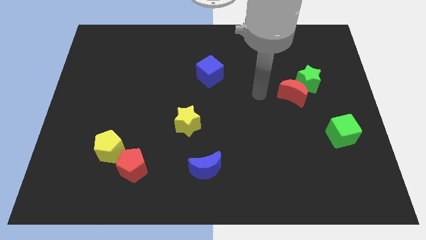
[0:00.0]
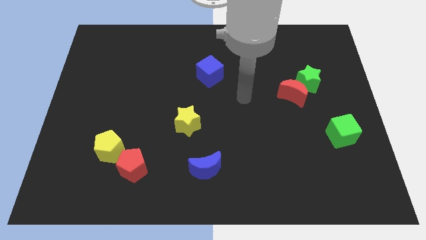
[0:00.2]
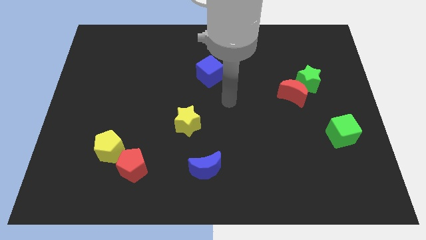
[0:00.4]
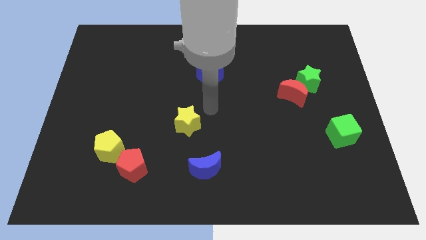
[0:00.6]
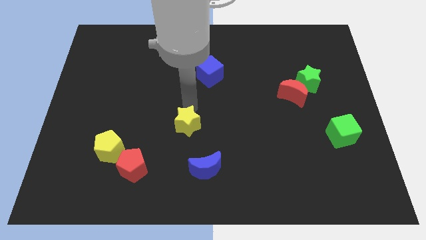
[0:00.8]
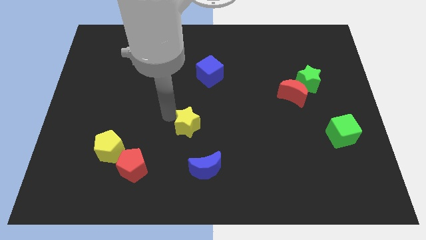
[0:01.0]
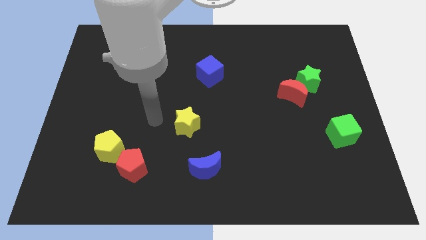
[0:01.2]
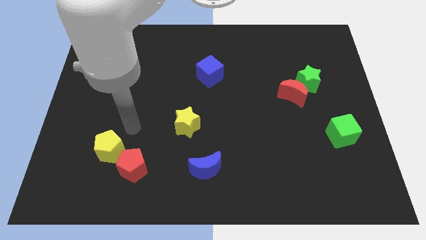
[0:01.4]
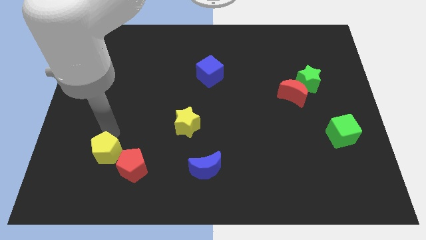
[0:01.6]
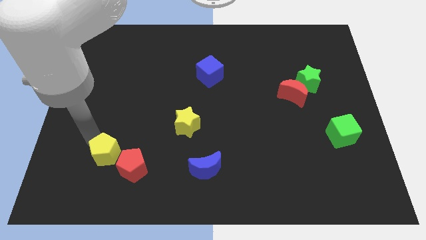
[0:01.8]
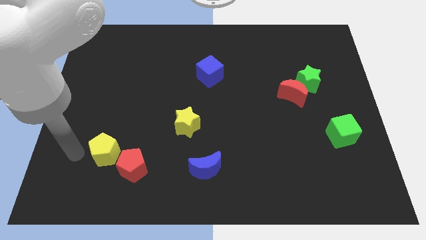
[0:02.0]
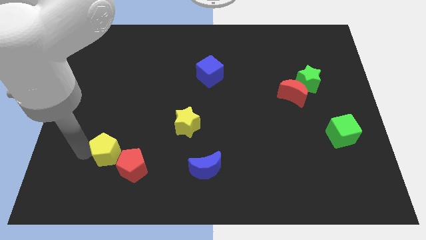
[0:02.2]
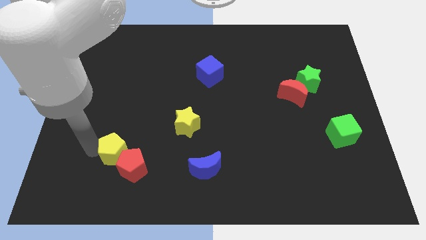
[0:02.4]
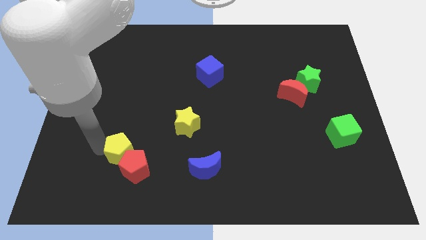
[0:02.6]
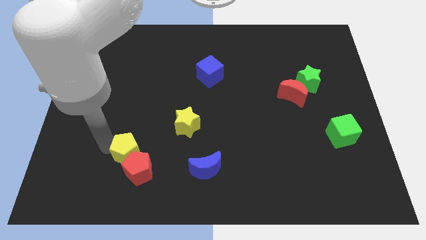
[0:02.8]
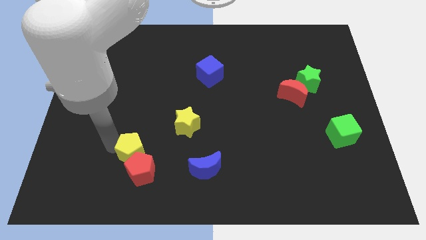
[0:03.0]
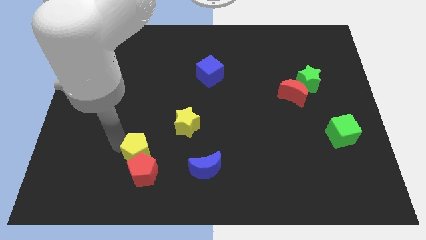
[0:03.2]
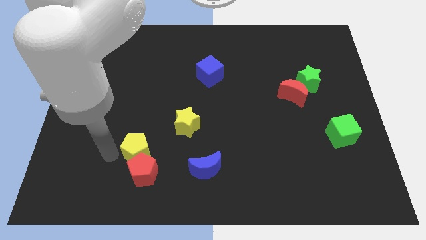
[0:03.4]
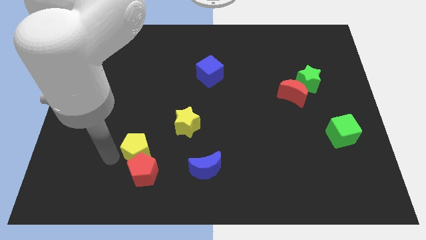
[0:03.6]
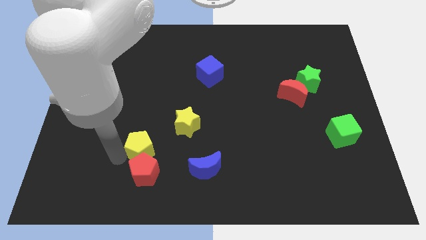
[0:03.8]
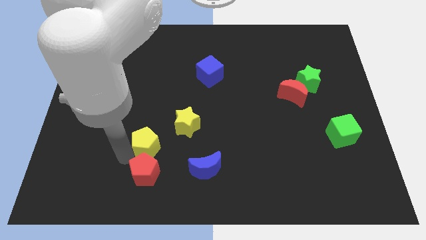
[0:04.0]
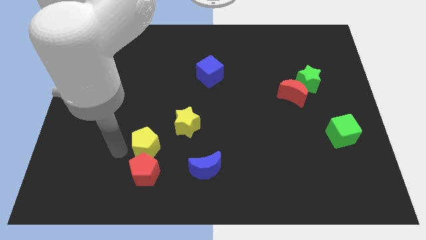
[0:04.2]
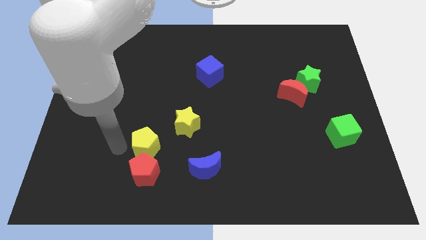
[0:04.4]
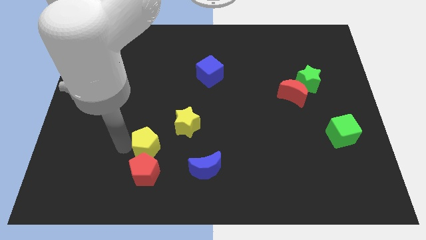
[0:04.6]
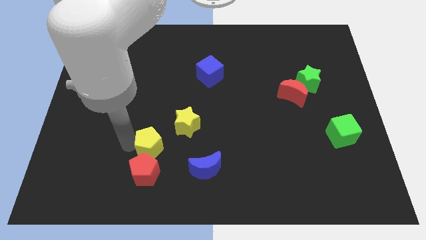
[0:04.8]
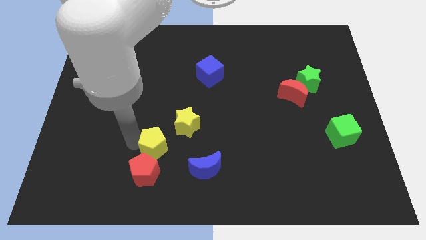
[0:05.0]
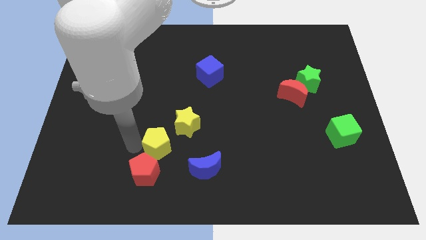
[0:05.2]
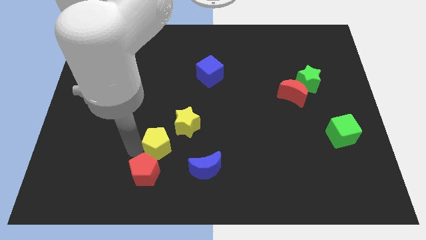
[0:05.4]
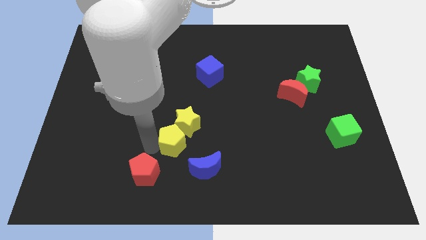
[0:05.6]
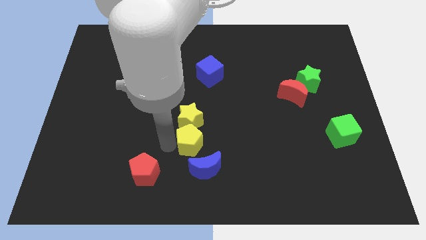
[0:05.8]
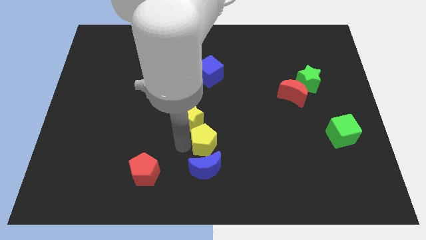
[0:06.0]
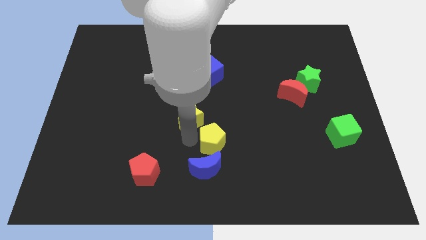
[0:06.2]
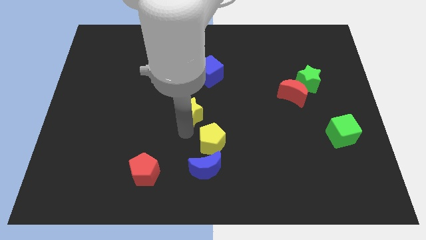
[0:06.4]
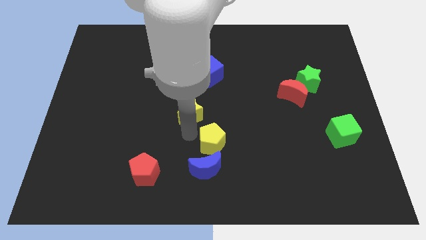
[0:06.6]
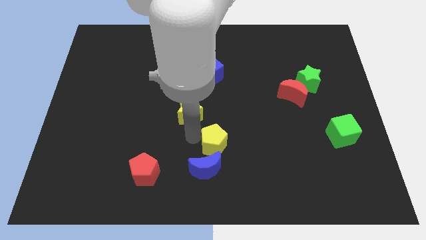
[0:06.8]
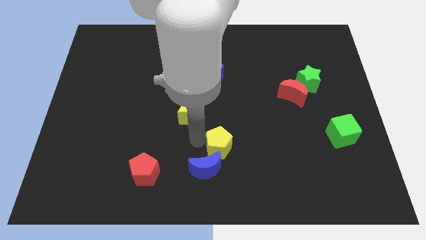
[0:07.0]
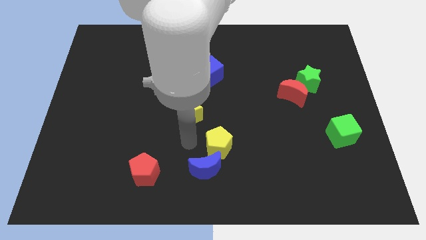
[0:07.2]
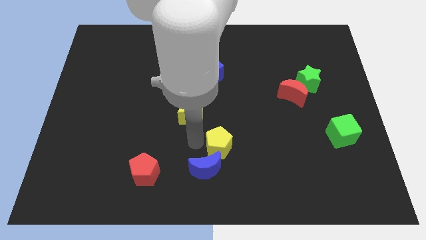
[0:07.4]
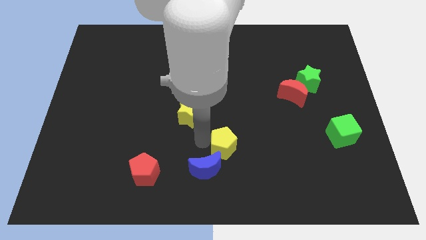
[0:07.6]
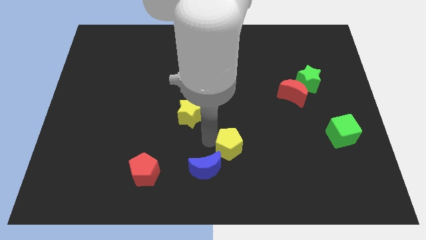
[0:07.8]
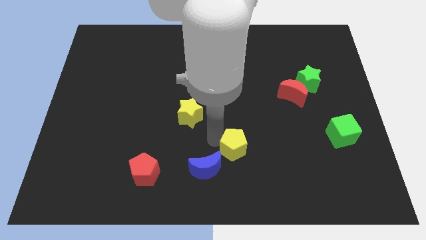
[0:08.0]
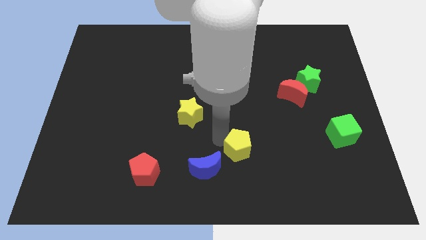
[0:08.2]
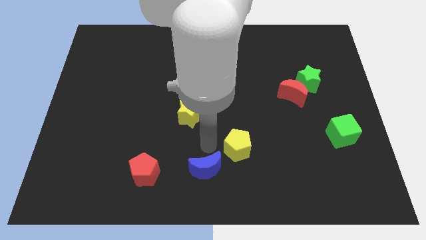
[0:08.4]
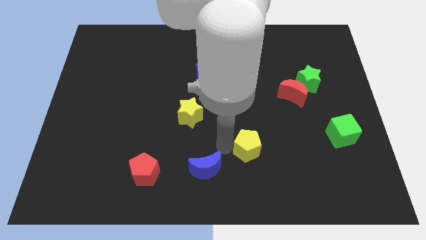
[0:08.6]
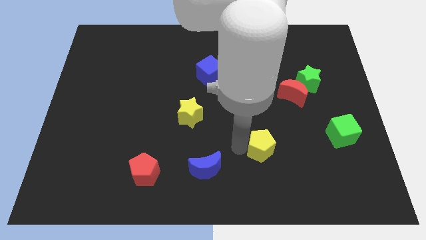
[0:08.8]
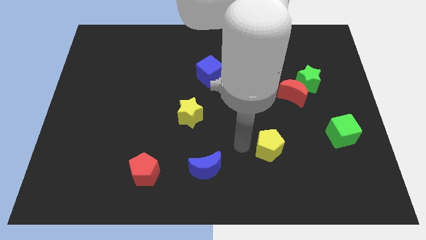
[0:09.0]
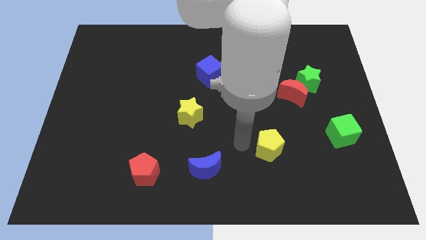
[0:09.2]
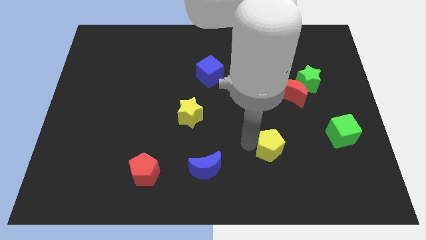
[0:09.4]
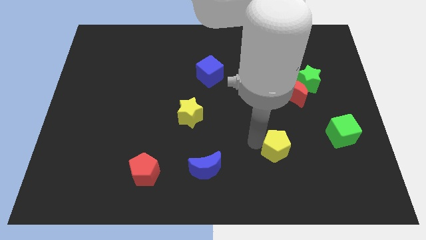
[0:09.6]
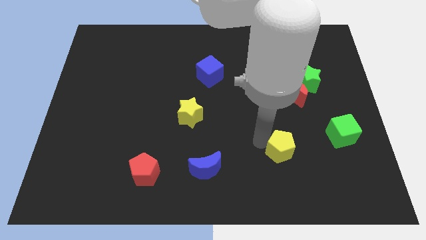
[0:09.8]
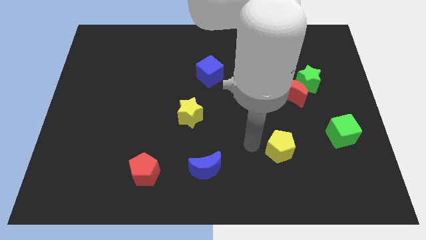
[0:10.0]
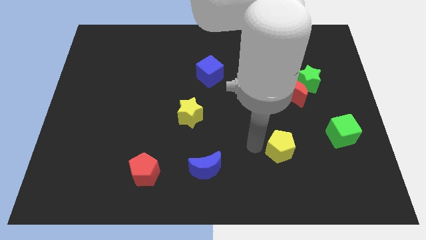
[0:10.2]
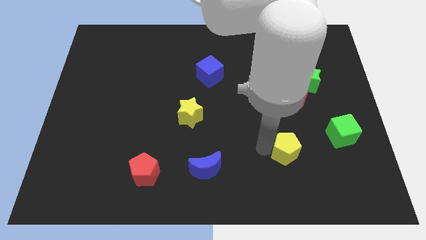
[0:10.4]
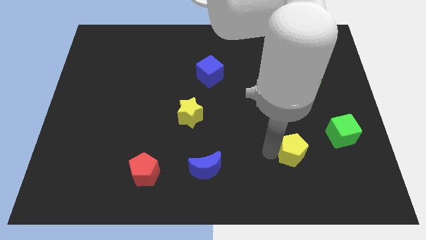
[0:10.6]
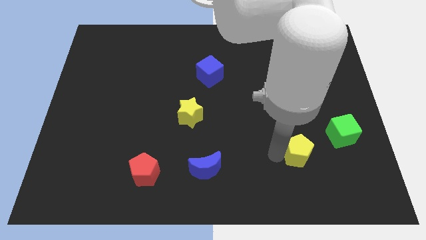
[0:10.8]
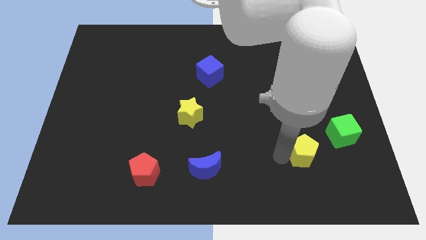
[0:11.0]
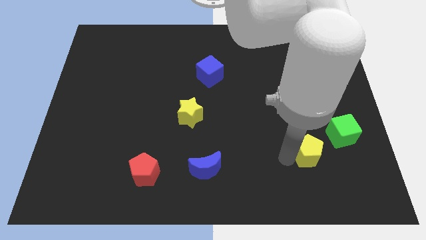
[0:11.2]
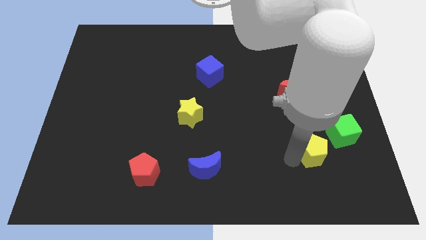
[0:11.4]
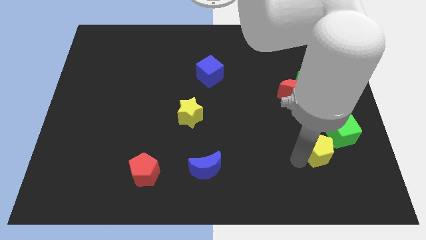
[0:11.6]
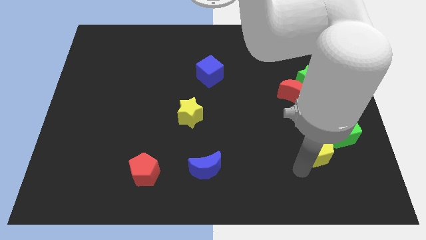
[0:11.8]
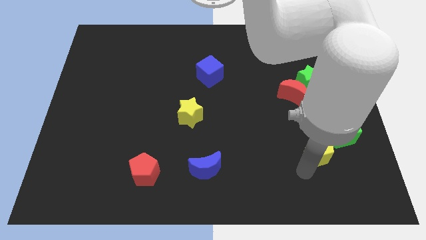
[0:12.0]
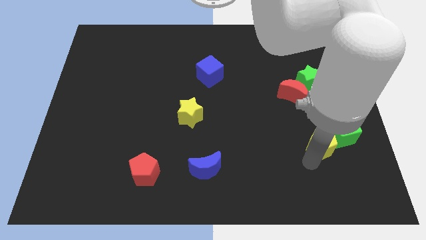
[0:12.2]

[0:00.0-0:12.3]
move the yellow pentagon towards the green cube
